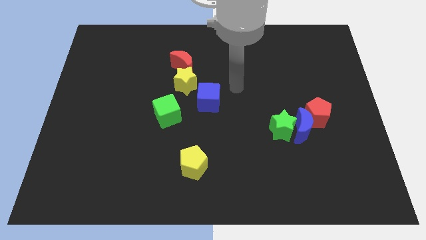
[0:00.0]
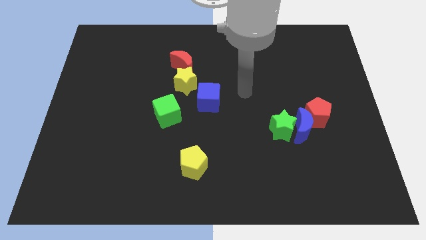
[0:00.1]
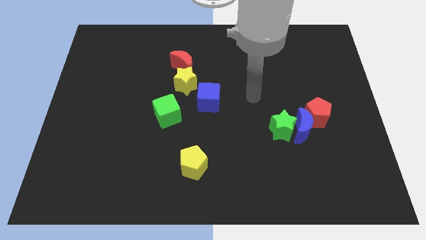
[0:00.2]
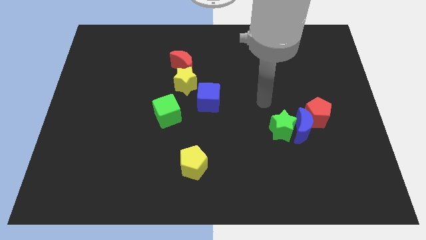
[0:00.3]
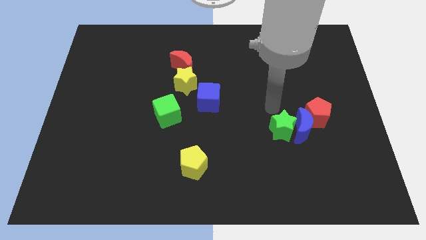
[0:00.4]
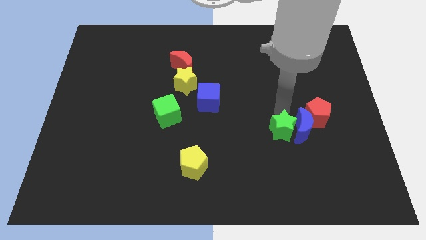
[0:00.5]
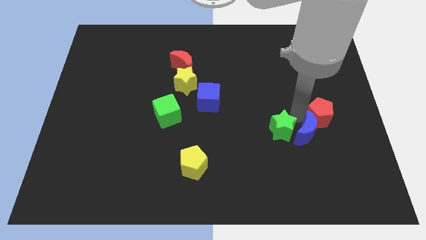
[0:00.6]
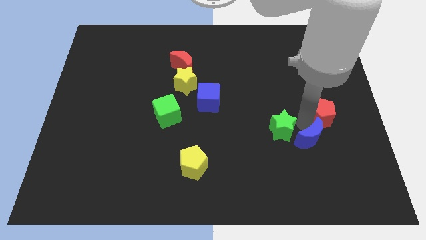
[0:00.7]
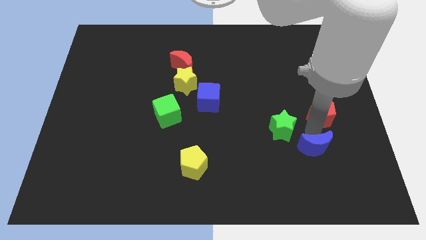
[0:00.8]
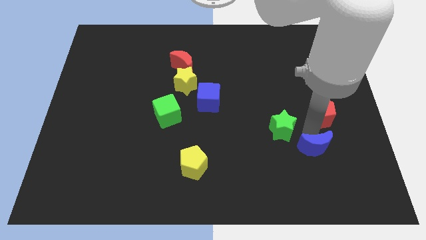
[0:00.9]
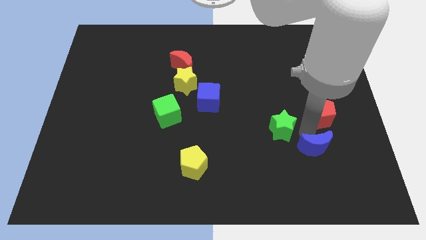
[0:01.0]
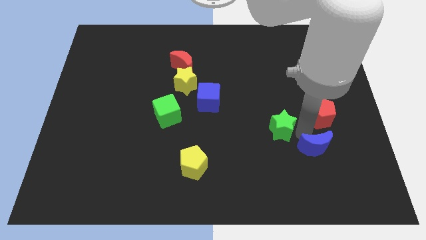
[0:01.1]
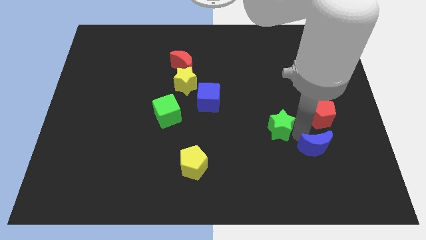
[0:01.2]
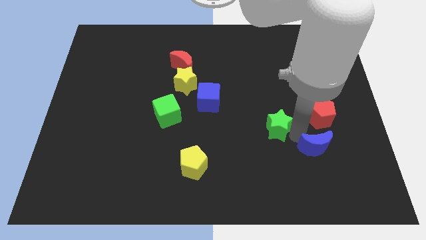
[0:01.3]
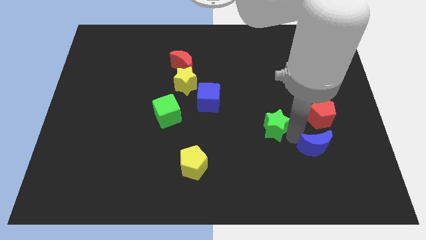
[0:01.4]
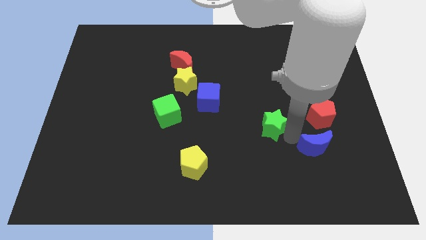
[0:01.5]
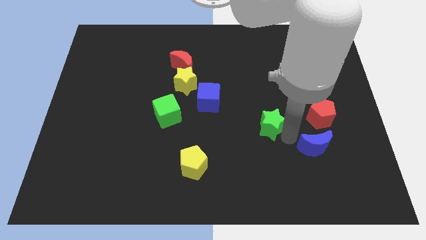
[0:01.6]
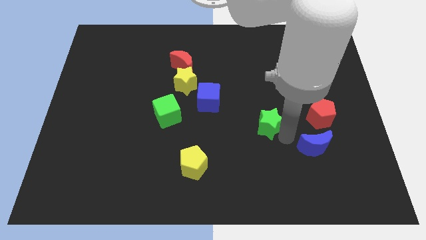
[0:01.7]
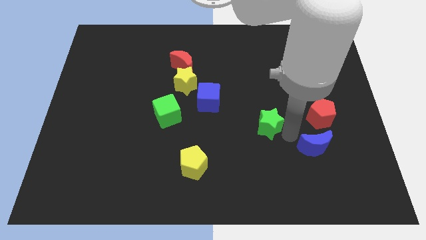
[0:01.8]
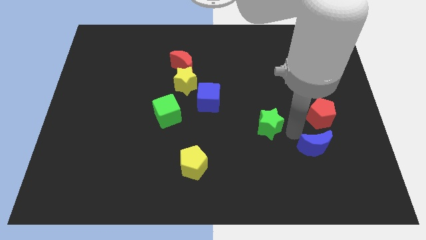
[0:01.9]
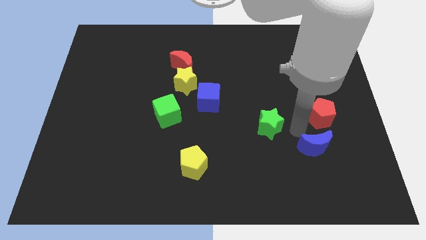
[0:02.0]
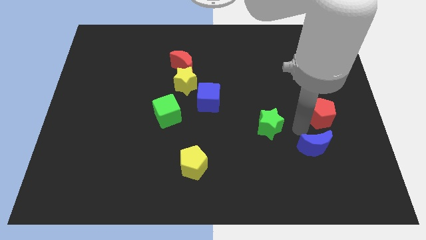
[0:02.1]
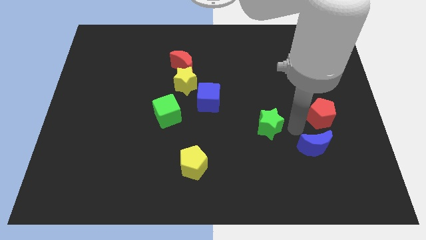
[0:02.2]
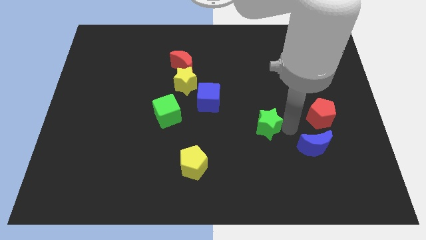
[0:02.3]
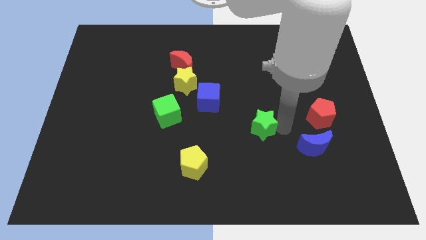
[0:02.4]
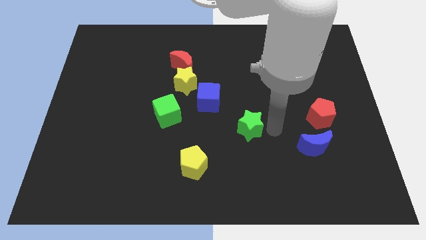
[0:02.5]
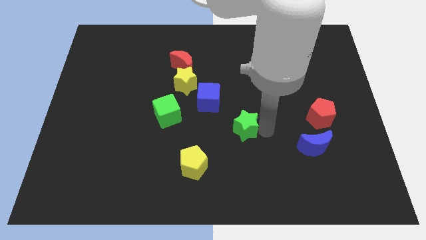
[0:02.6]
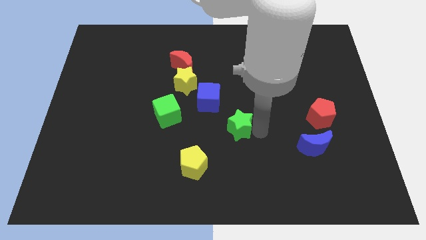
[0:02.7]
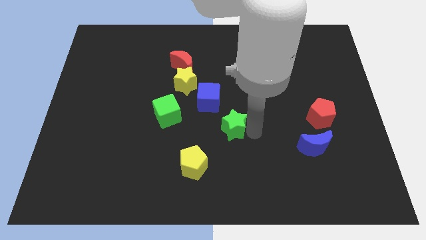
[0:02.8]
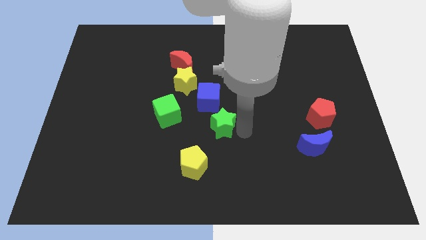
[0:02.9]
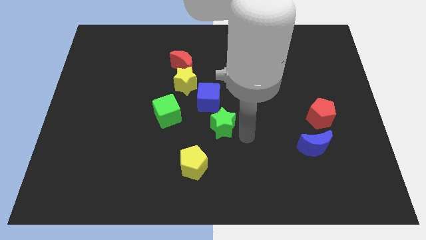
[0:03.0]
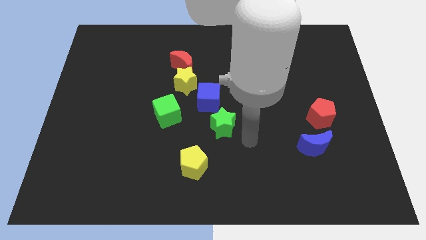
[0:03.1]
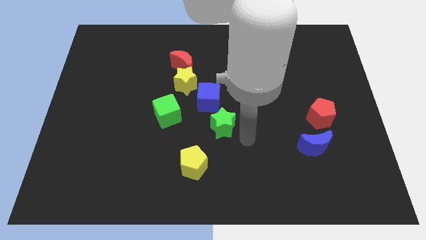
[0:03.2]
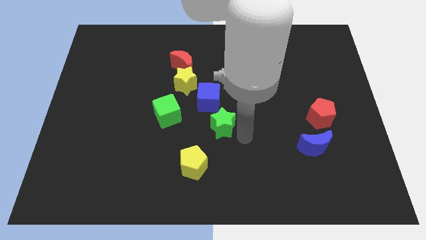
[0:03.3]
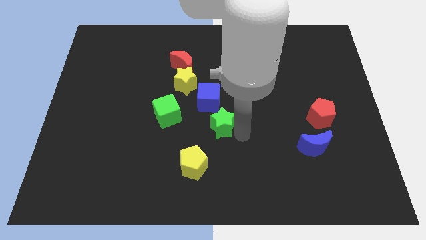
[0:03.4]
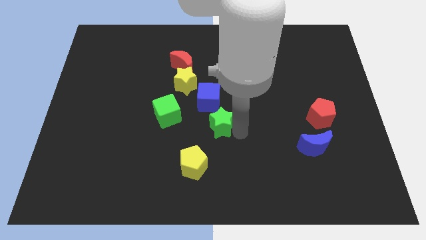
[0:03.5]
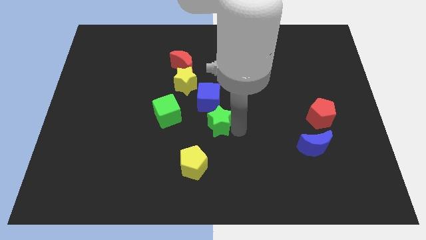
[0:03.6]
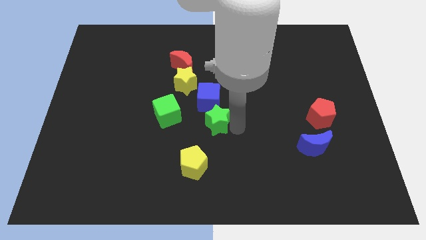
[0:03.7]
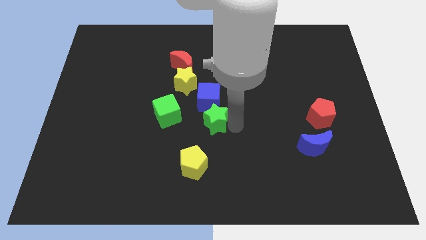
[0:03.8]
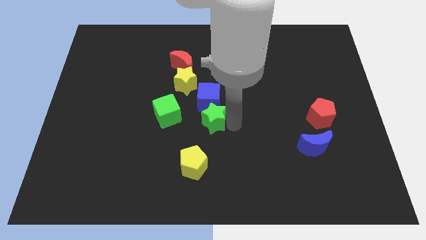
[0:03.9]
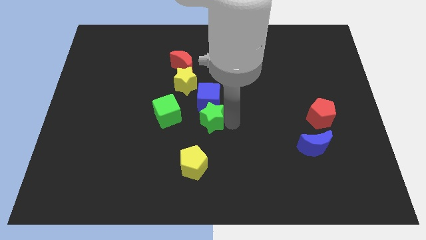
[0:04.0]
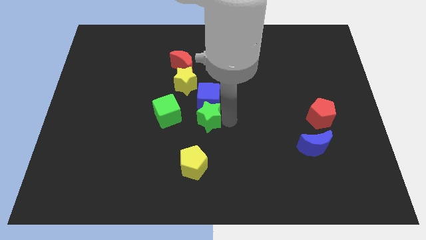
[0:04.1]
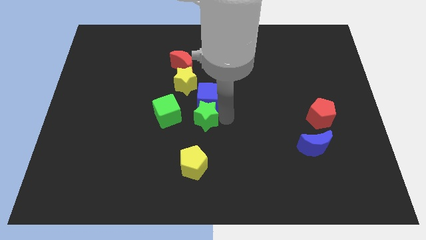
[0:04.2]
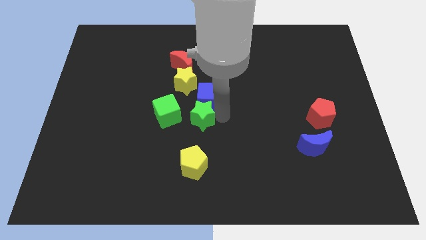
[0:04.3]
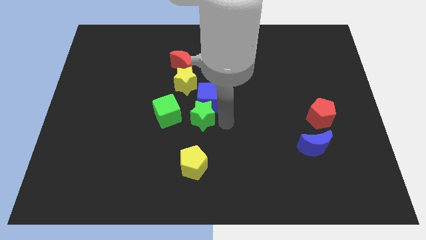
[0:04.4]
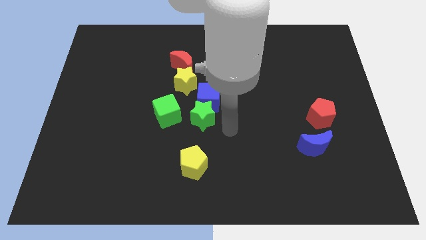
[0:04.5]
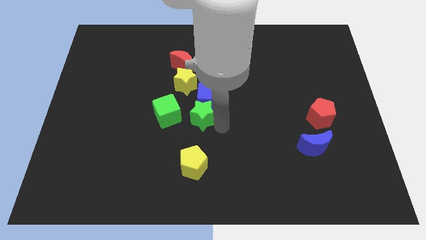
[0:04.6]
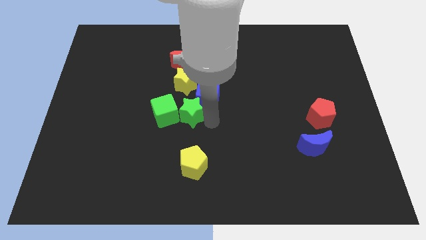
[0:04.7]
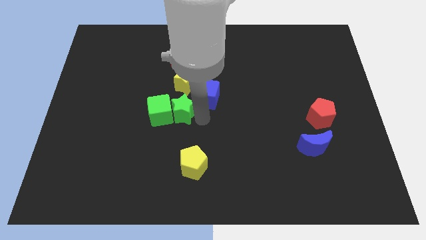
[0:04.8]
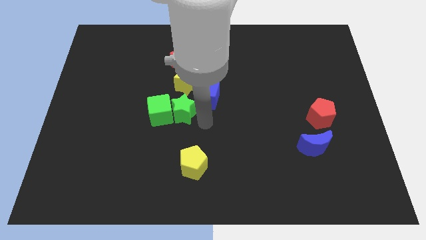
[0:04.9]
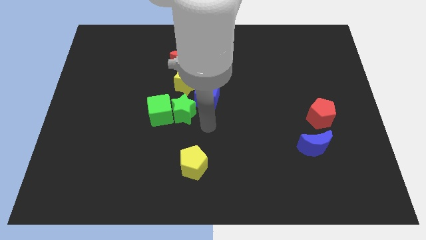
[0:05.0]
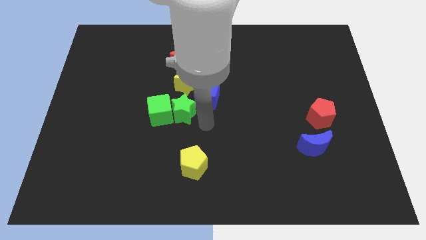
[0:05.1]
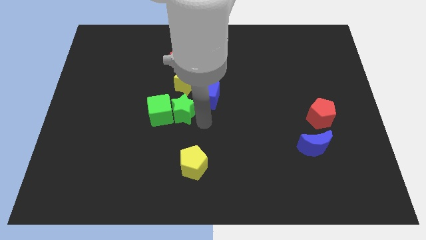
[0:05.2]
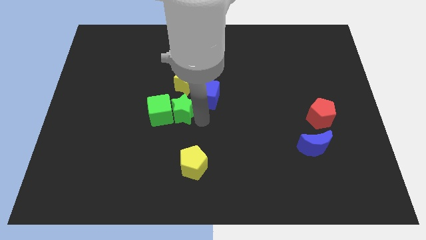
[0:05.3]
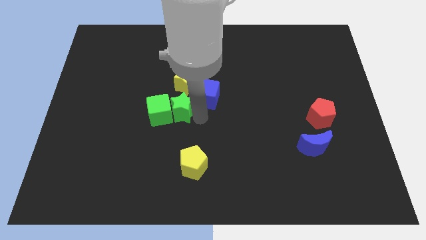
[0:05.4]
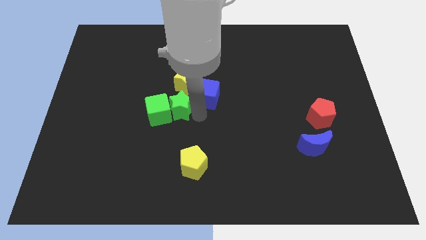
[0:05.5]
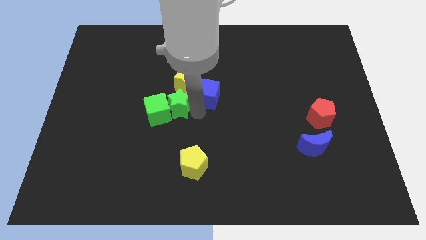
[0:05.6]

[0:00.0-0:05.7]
push the green star diagonally down and to the left of the yellow star

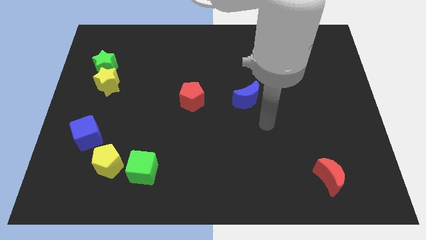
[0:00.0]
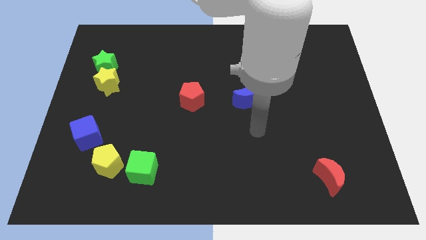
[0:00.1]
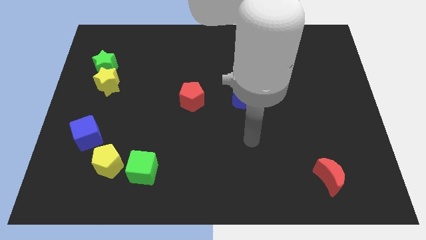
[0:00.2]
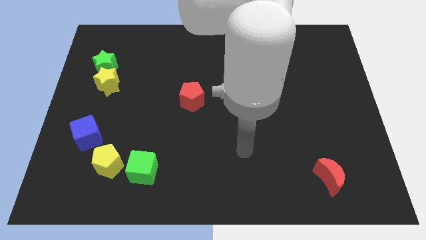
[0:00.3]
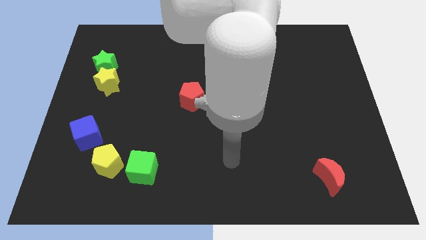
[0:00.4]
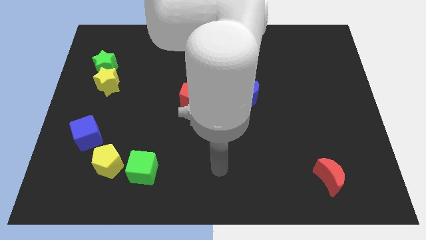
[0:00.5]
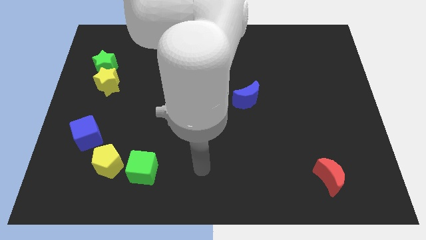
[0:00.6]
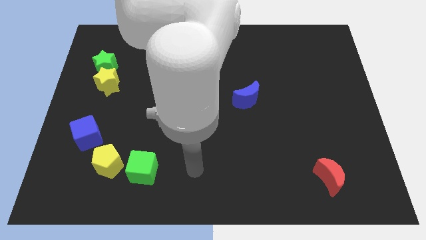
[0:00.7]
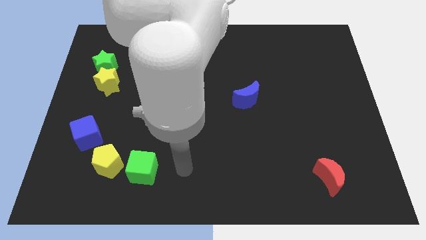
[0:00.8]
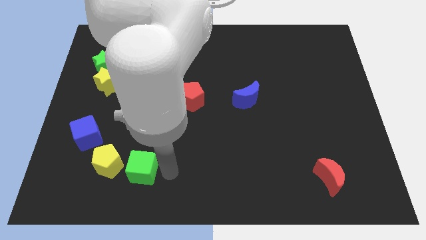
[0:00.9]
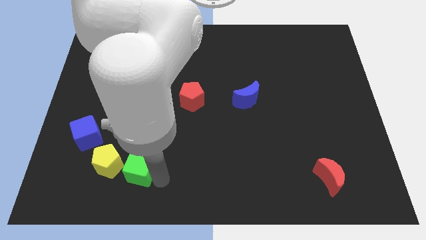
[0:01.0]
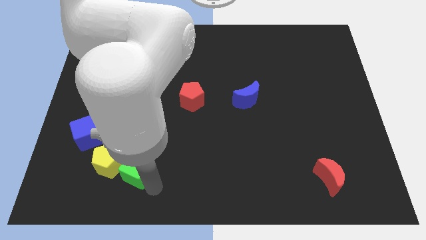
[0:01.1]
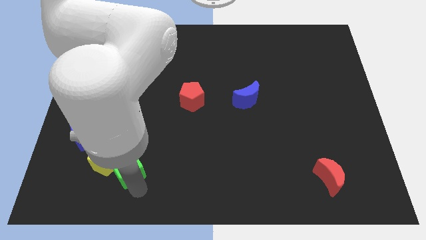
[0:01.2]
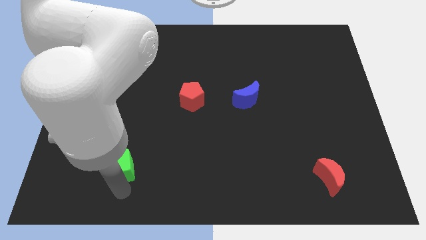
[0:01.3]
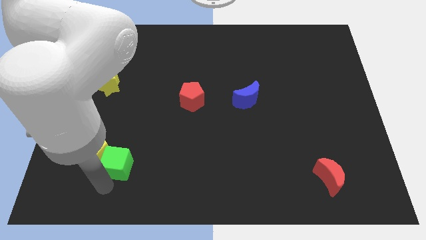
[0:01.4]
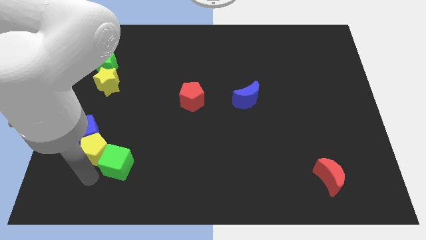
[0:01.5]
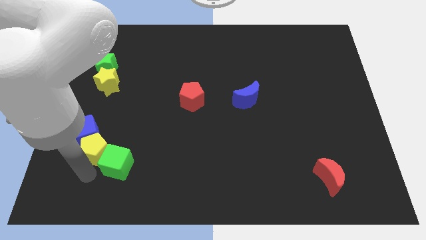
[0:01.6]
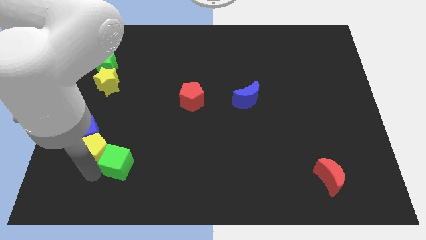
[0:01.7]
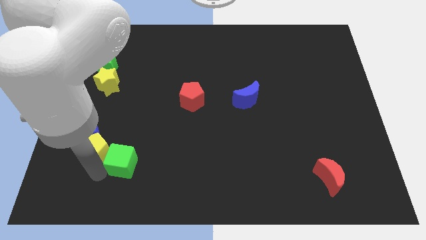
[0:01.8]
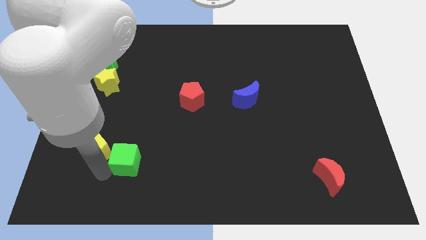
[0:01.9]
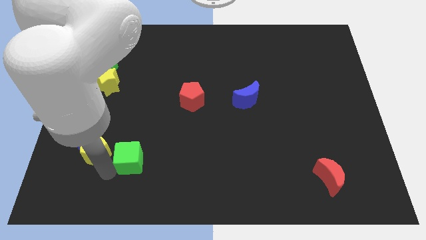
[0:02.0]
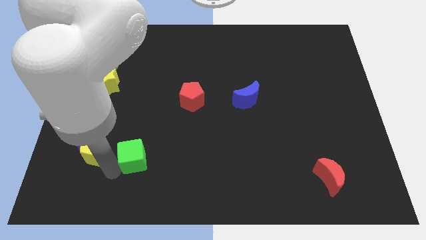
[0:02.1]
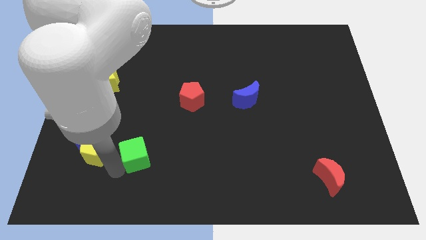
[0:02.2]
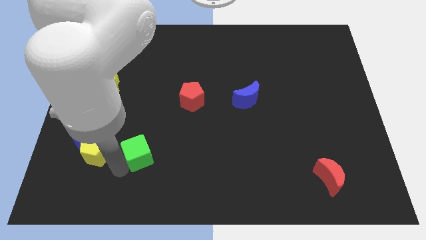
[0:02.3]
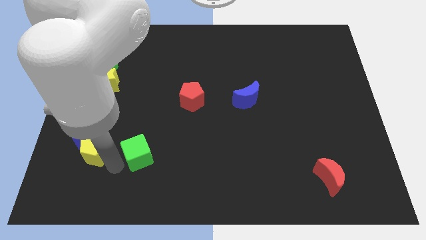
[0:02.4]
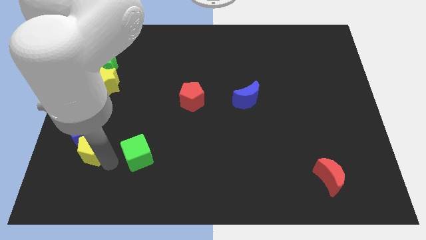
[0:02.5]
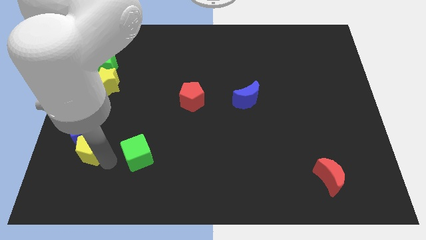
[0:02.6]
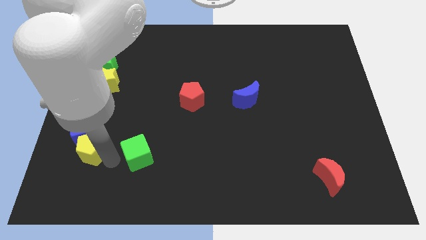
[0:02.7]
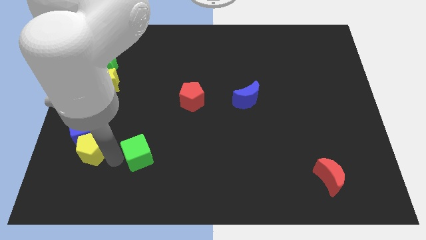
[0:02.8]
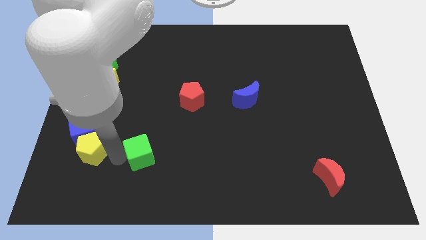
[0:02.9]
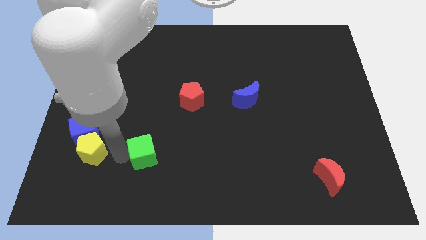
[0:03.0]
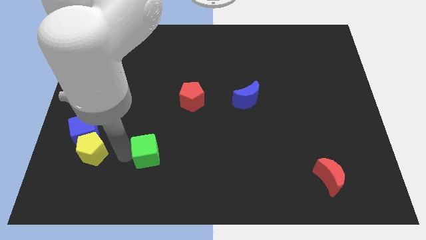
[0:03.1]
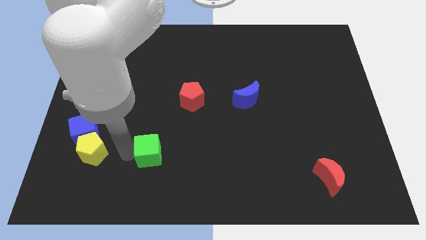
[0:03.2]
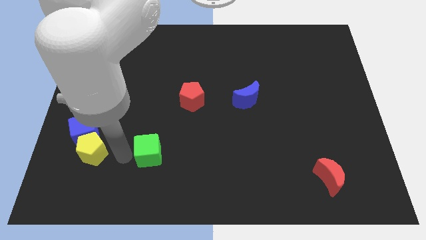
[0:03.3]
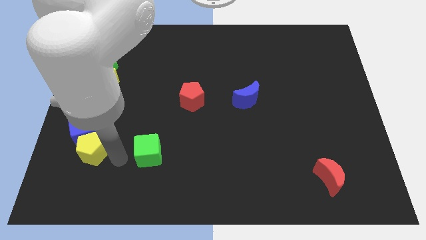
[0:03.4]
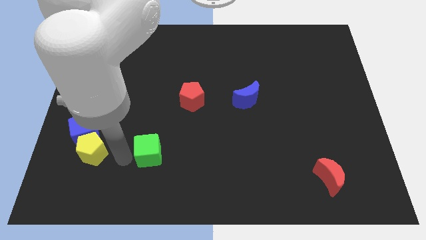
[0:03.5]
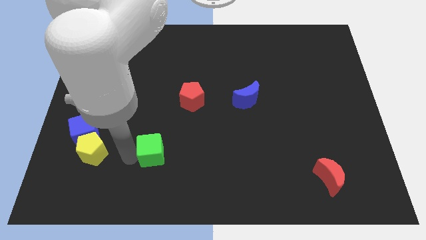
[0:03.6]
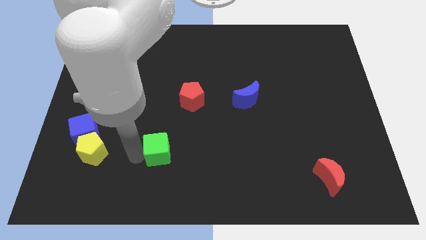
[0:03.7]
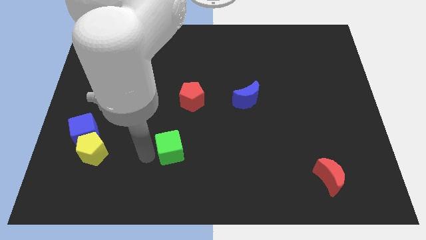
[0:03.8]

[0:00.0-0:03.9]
push the green cube below the red pentagon
